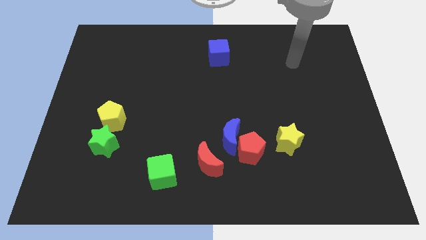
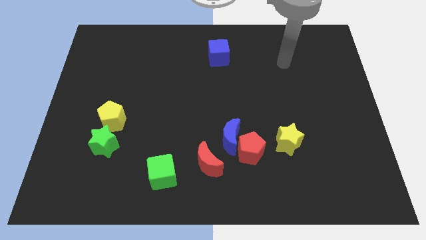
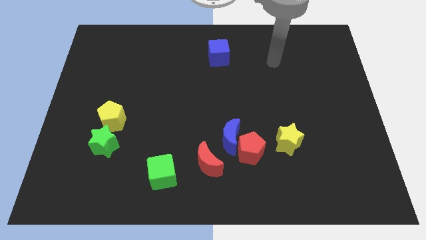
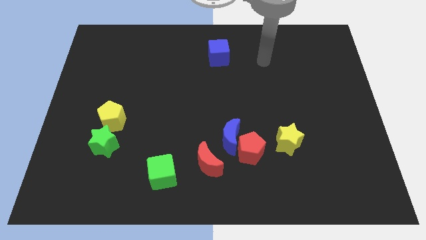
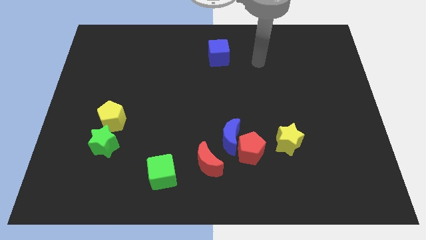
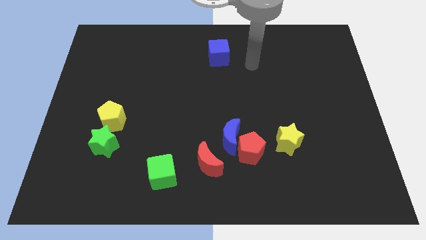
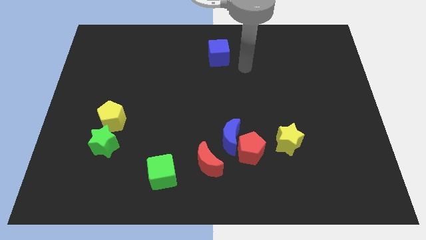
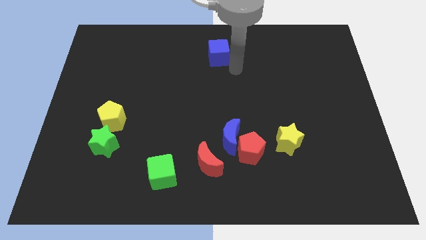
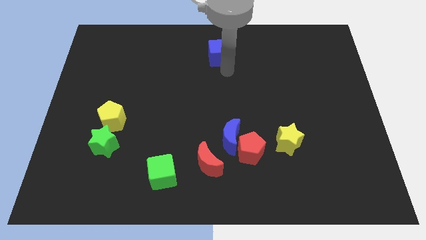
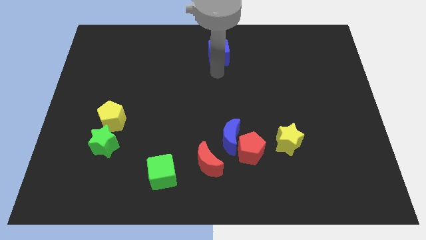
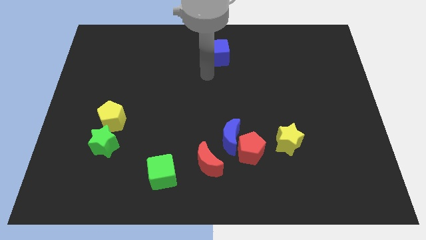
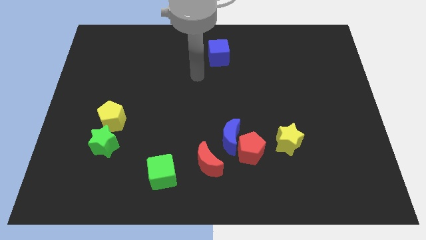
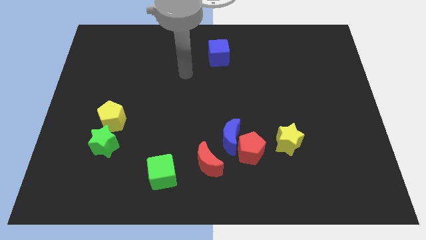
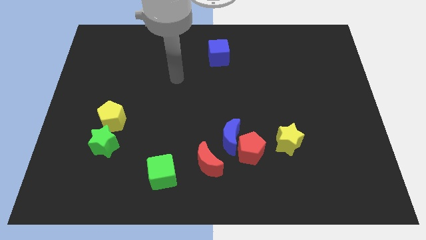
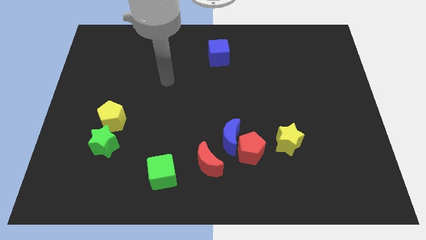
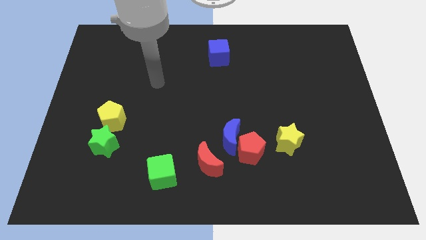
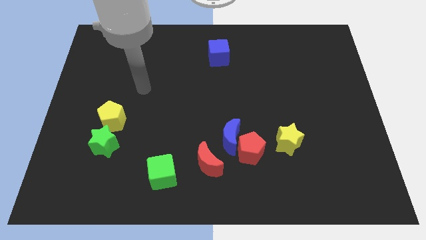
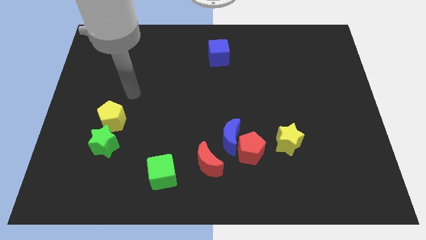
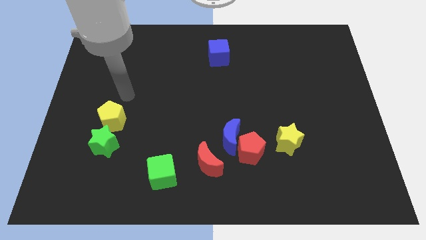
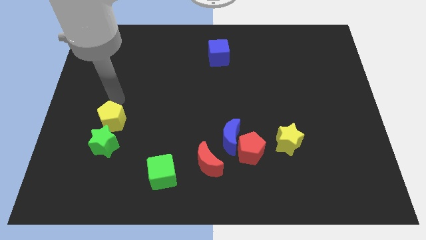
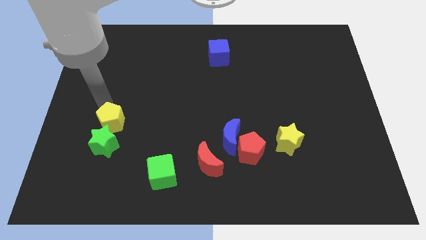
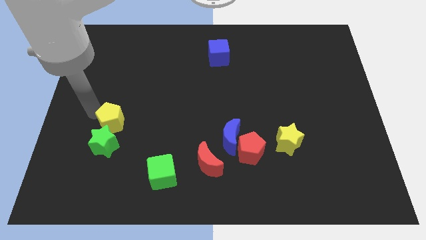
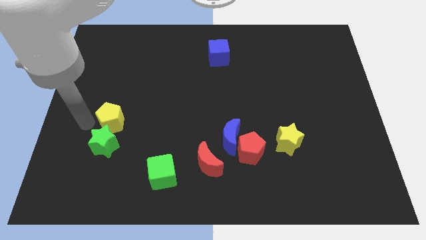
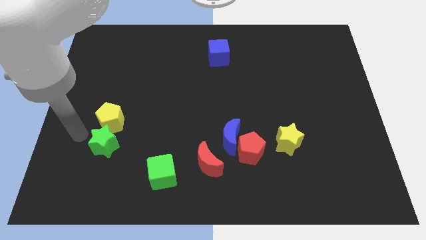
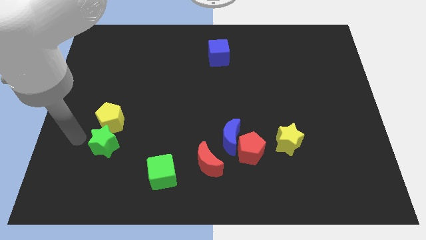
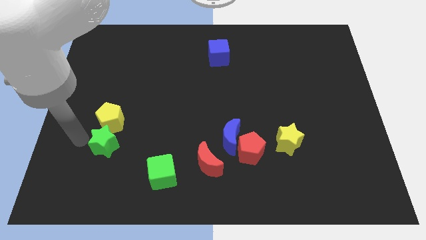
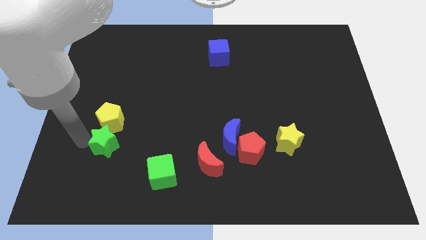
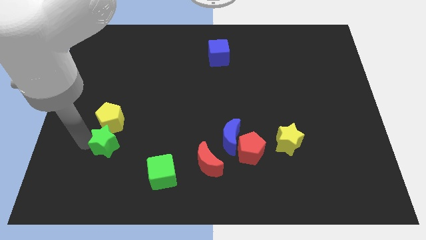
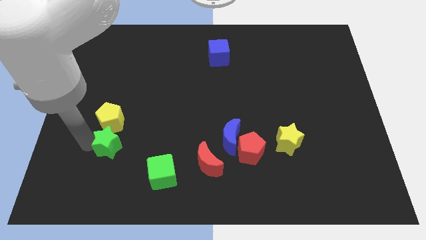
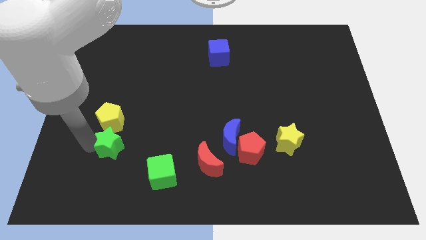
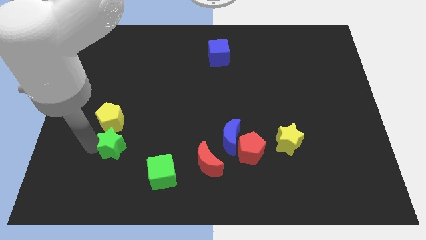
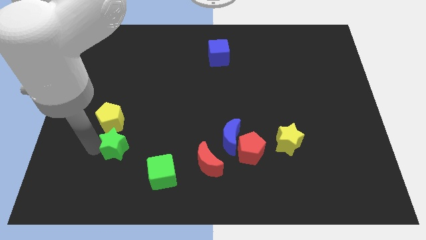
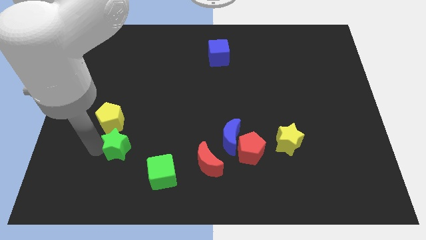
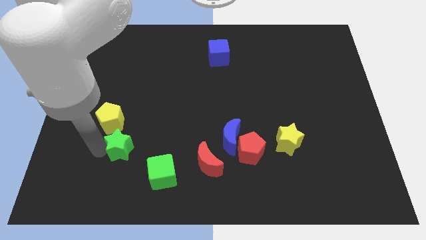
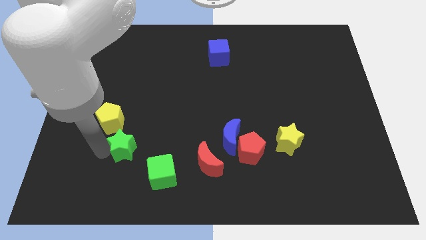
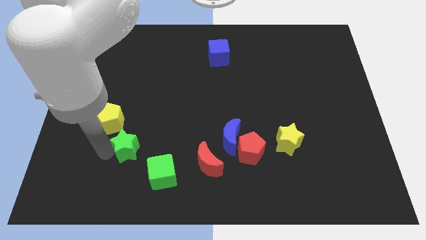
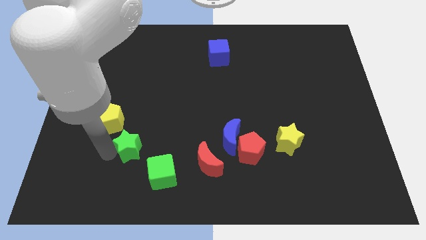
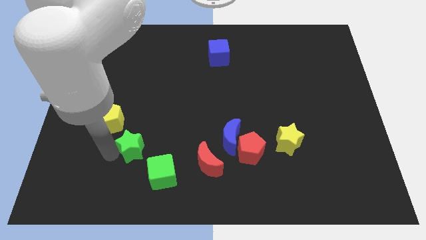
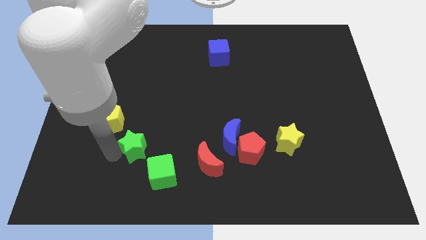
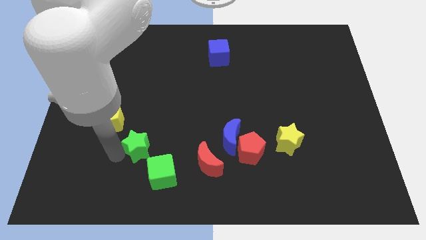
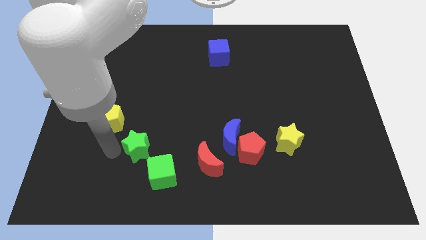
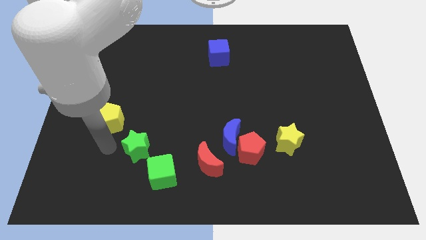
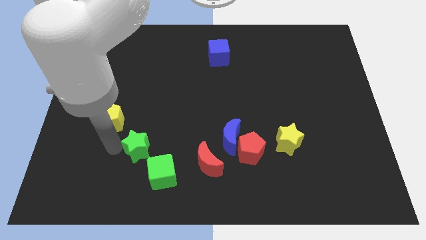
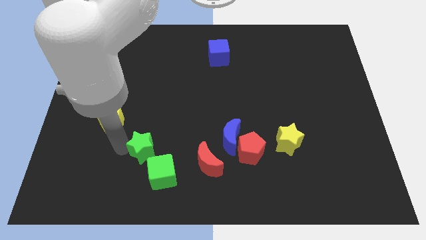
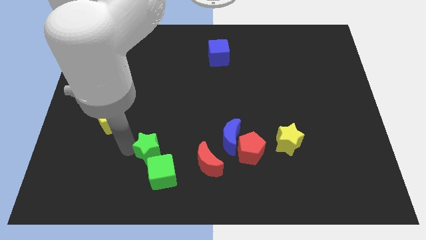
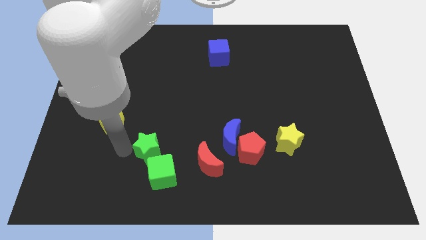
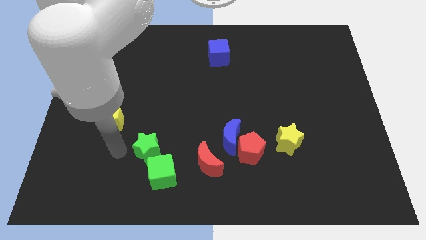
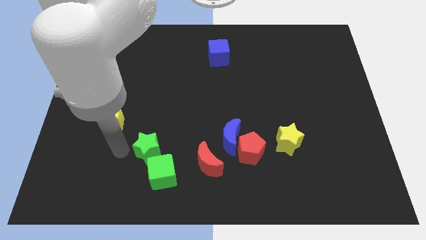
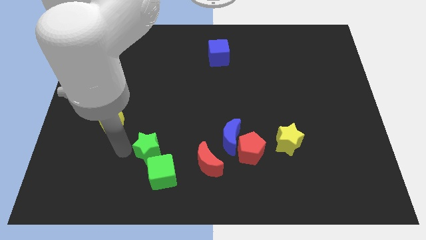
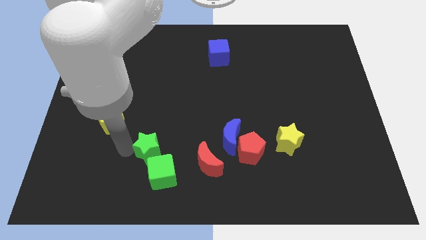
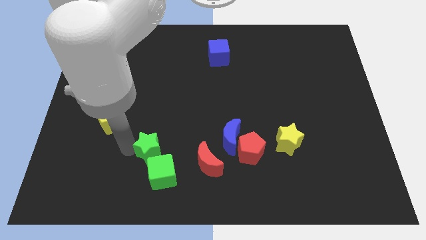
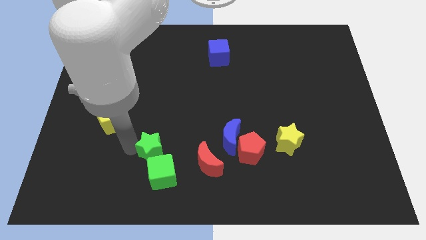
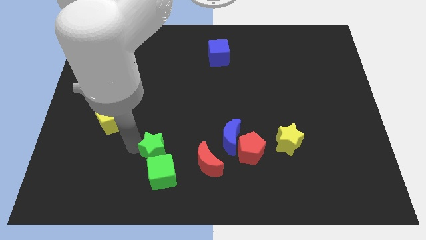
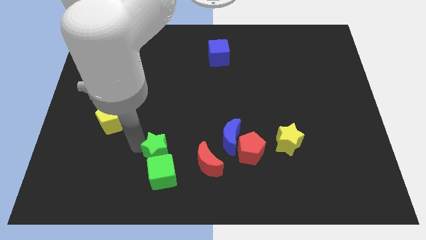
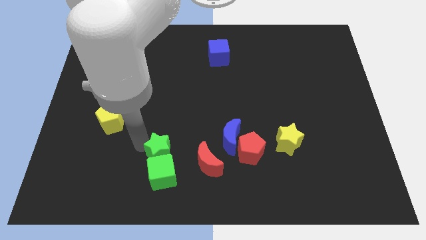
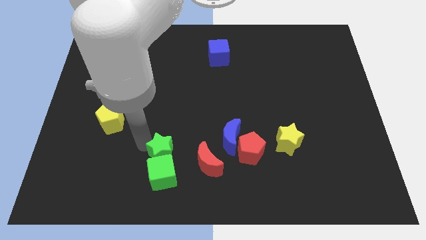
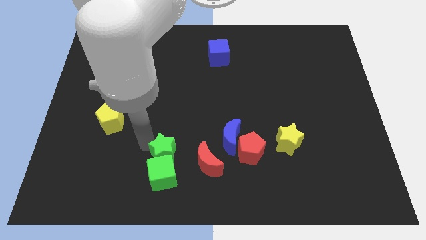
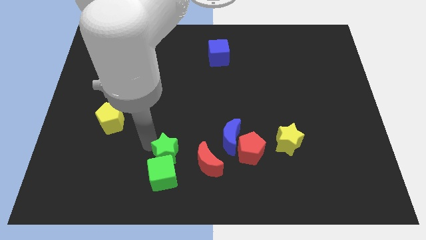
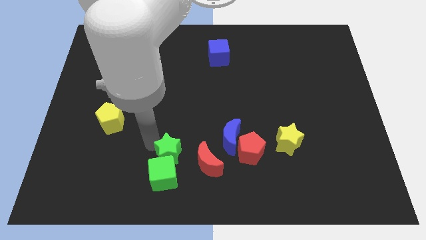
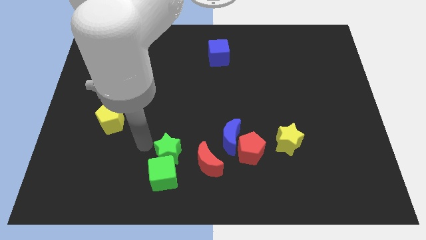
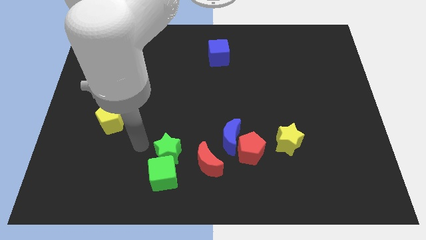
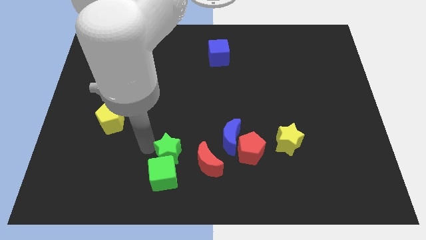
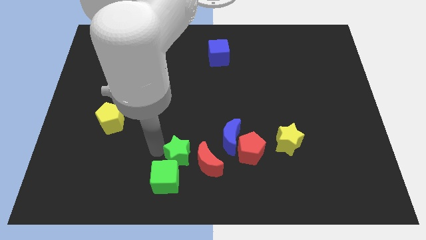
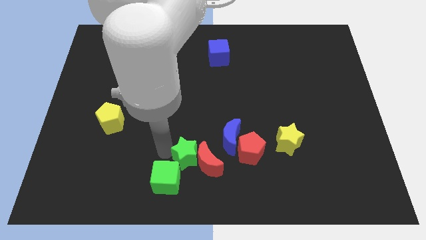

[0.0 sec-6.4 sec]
push the green star to the red moon

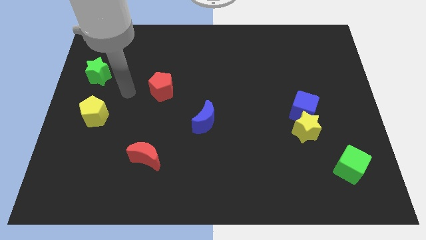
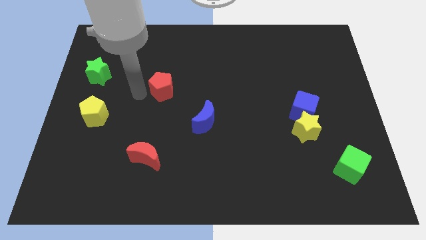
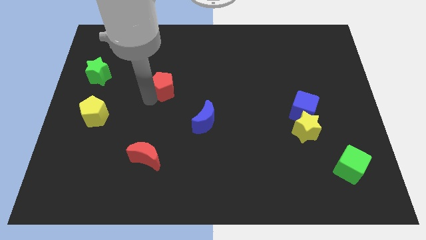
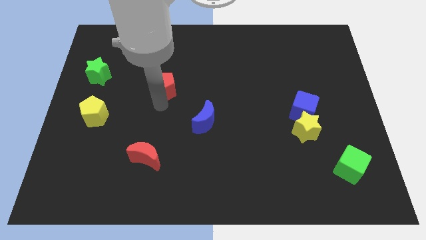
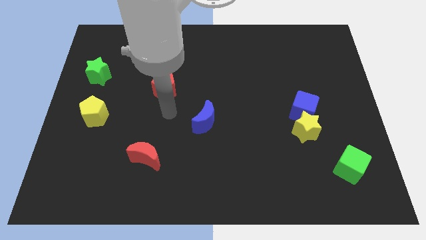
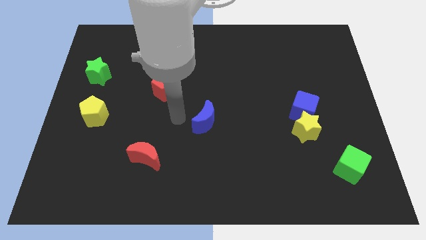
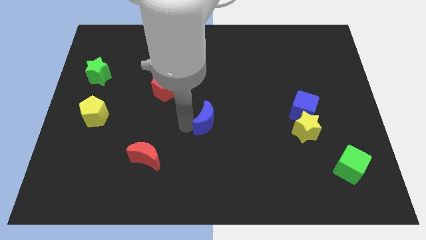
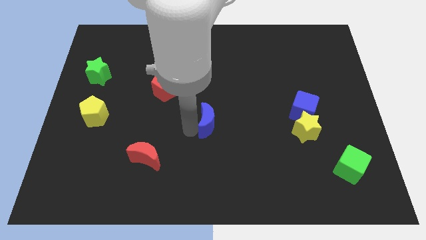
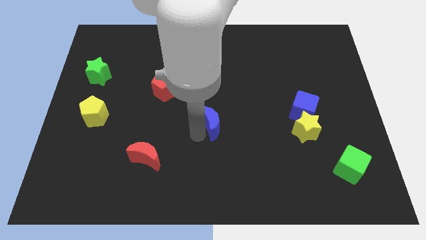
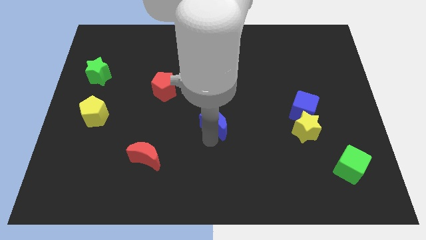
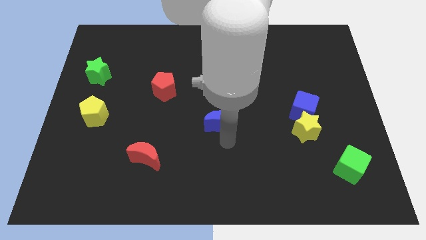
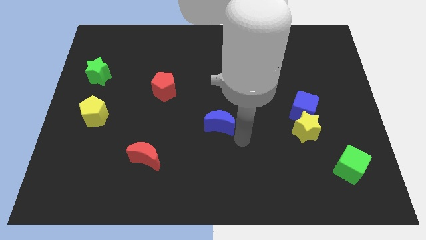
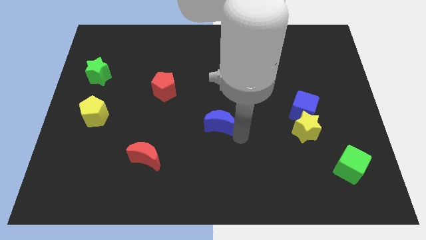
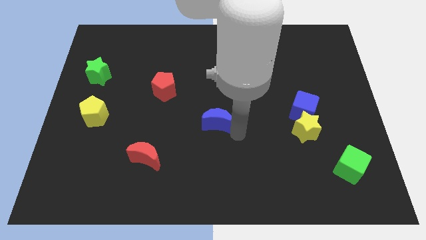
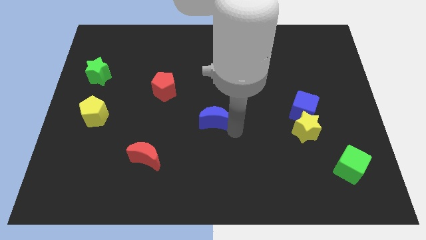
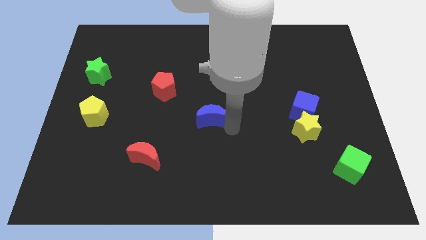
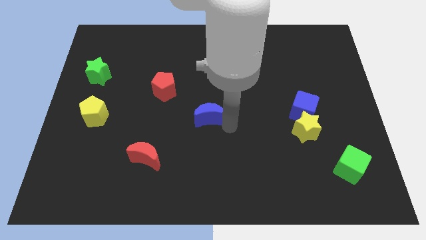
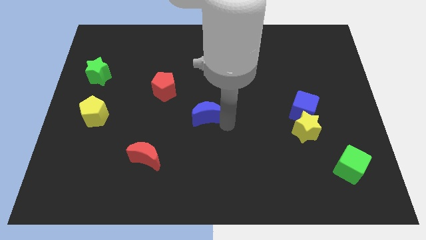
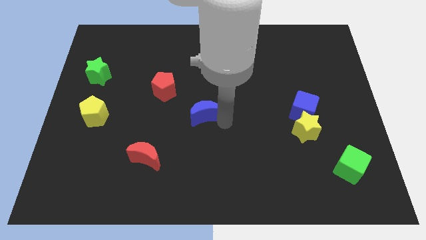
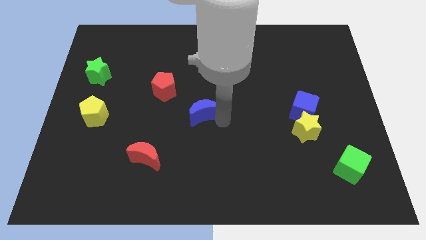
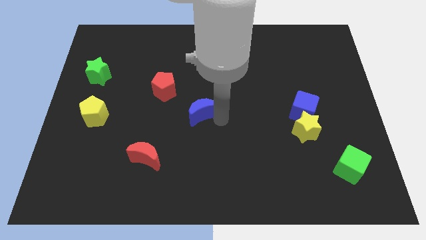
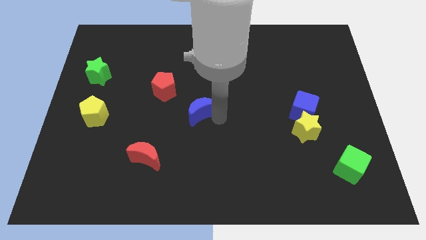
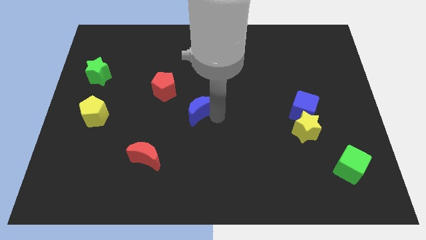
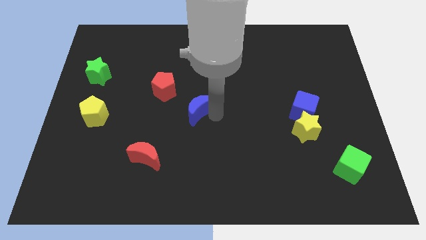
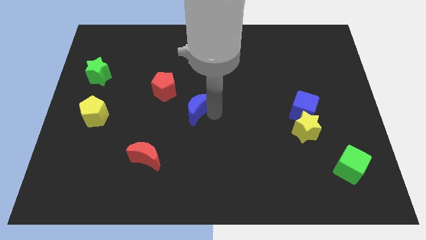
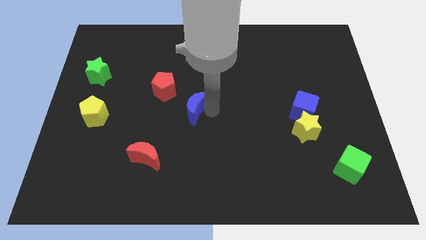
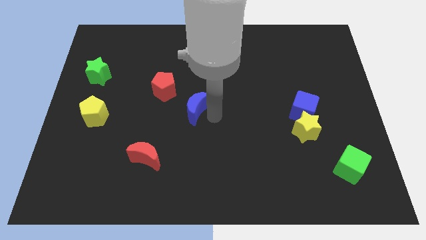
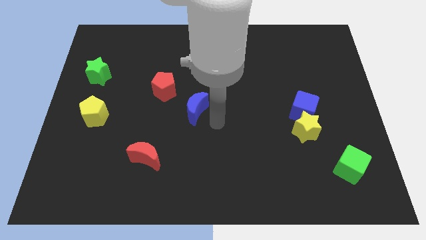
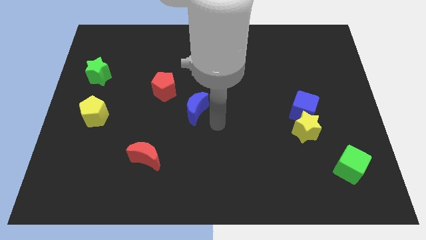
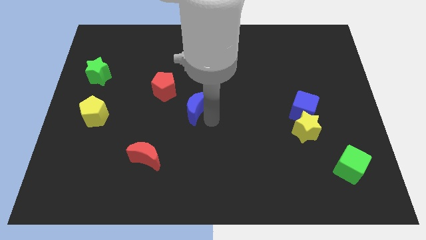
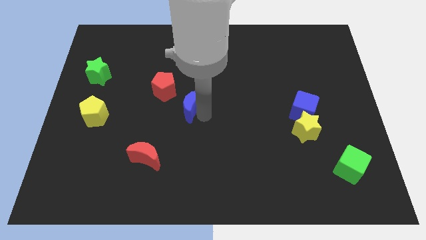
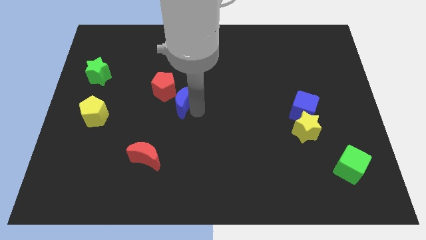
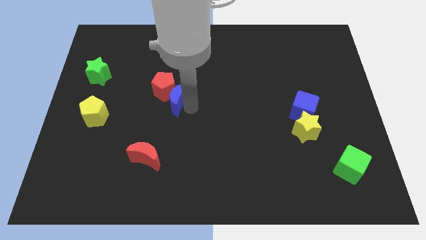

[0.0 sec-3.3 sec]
slide the blue moon next to the red pentagon
